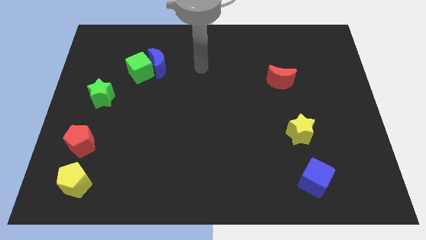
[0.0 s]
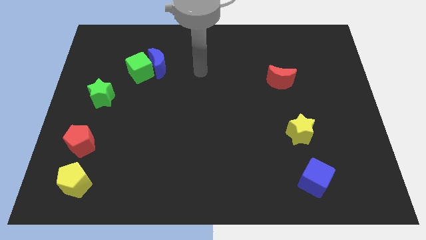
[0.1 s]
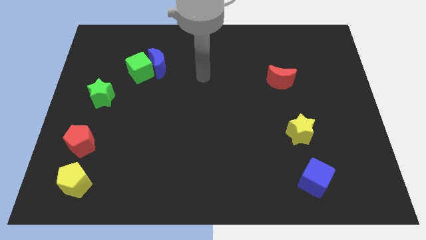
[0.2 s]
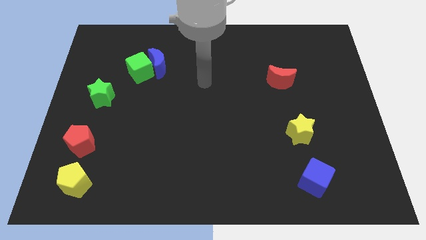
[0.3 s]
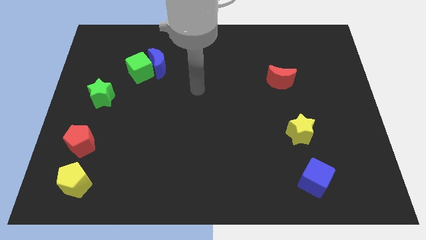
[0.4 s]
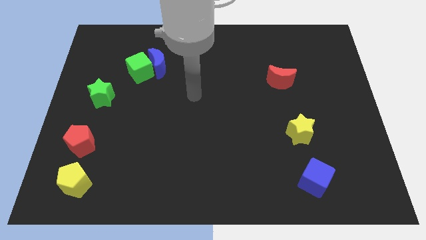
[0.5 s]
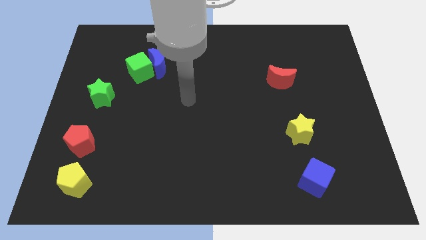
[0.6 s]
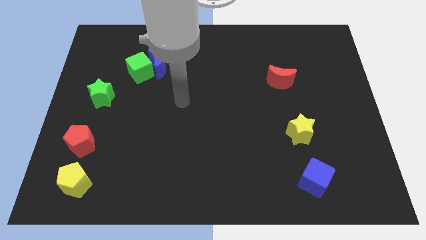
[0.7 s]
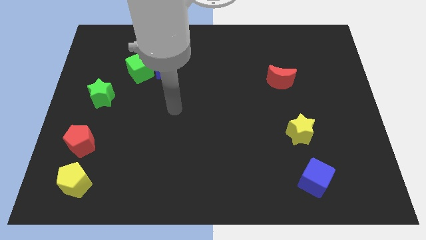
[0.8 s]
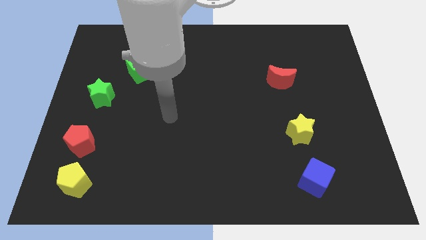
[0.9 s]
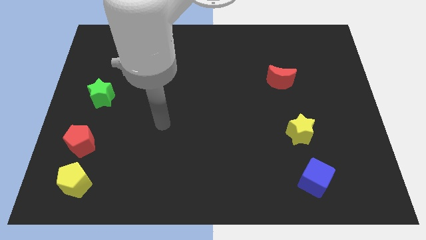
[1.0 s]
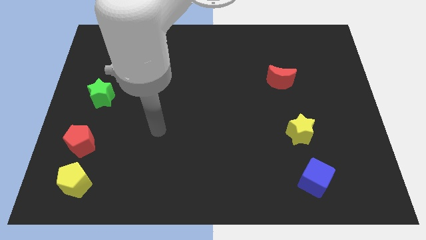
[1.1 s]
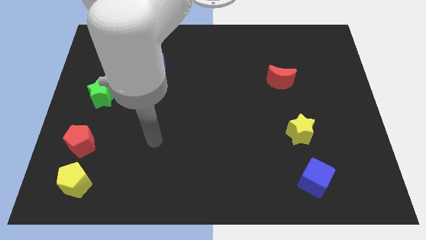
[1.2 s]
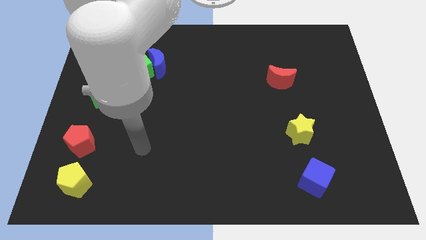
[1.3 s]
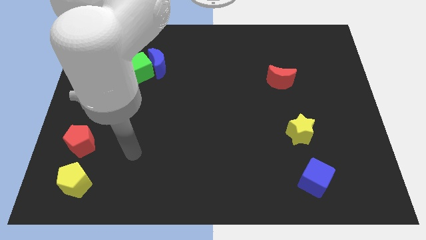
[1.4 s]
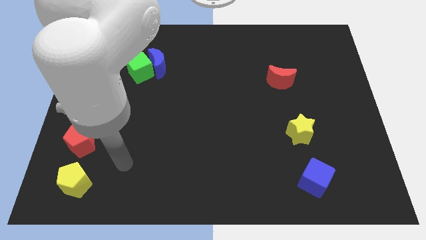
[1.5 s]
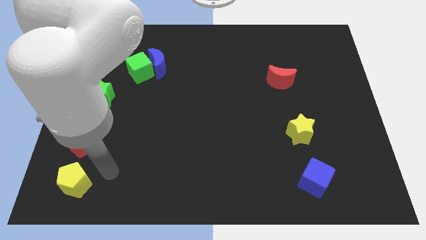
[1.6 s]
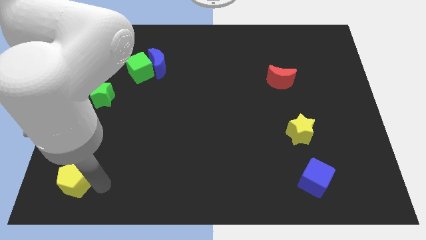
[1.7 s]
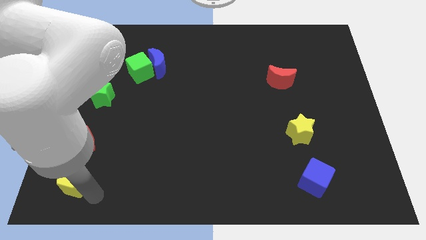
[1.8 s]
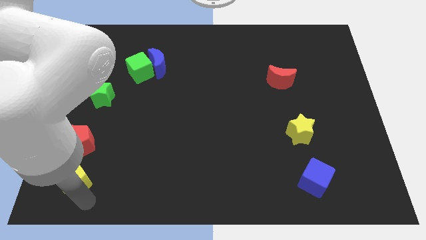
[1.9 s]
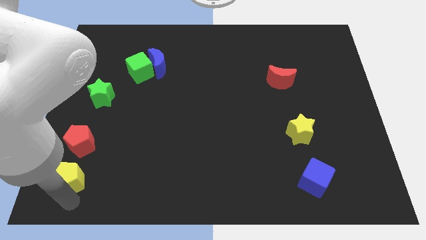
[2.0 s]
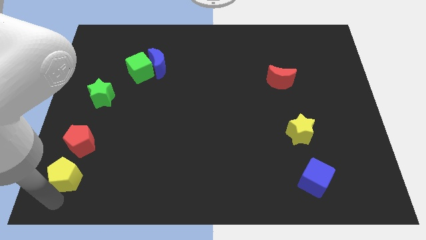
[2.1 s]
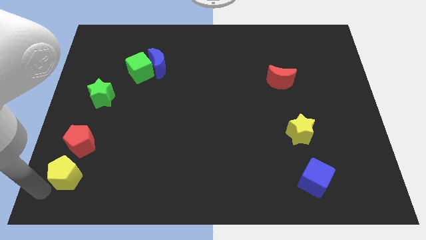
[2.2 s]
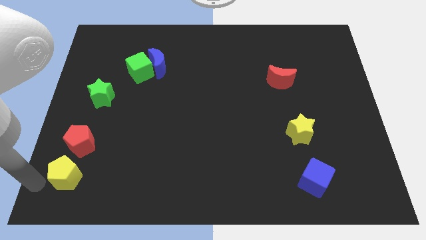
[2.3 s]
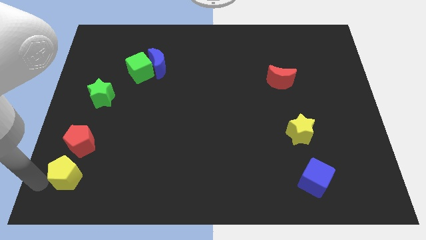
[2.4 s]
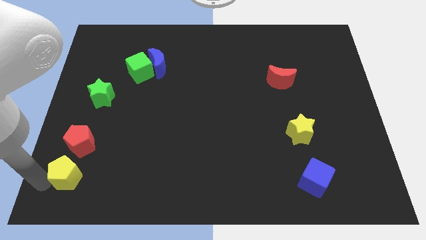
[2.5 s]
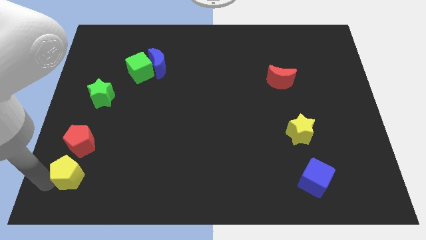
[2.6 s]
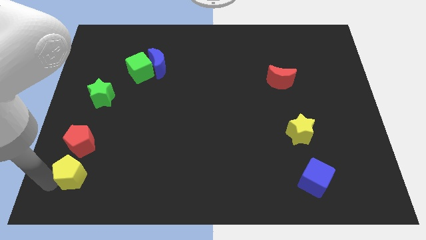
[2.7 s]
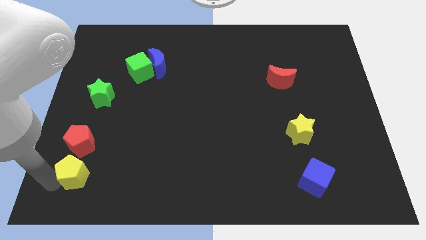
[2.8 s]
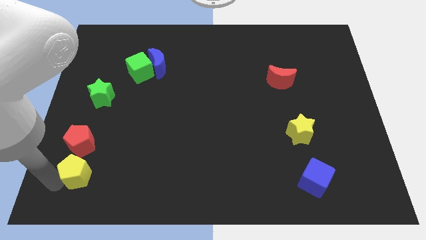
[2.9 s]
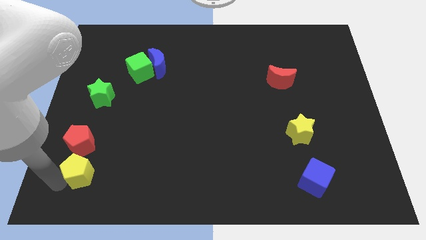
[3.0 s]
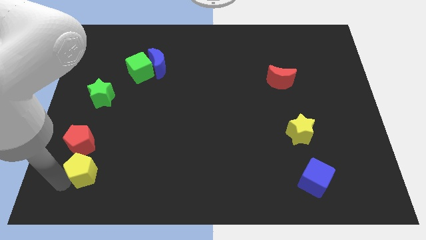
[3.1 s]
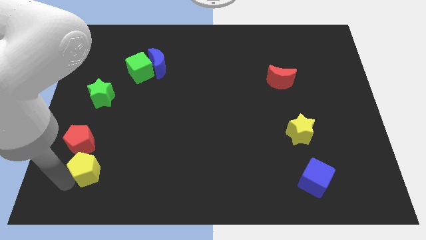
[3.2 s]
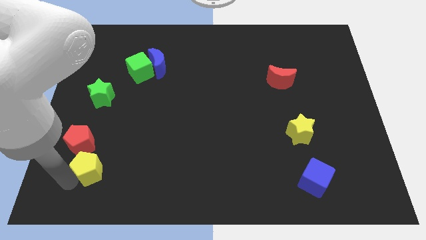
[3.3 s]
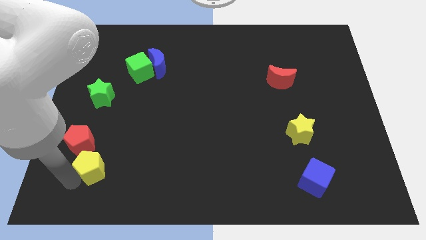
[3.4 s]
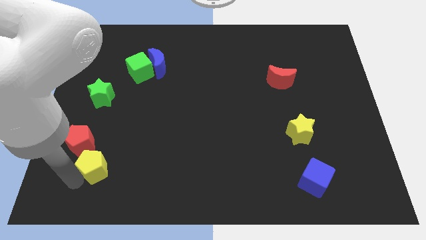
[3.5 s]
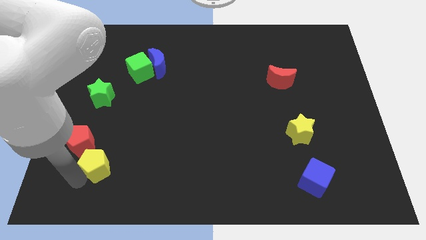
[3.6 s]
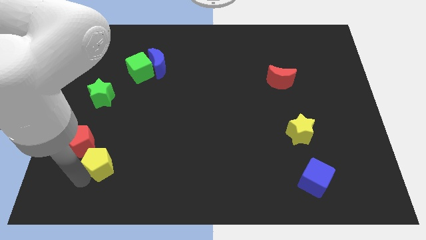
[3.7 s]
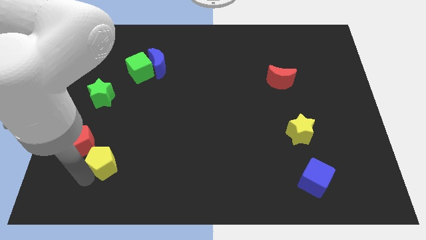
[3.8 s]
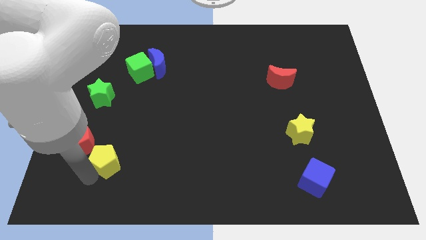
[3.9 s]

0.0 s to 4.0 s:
slightly move the yellow pentagon diagonally up and right

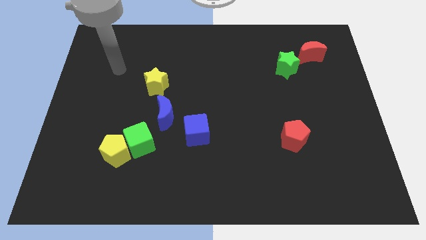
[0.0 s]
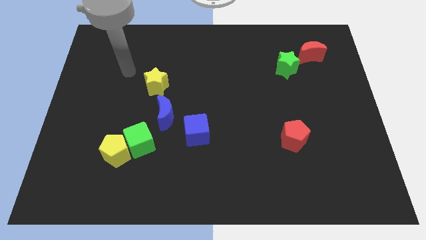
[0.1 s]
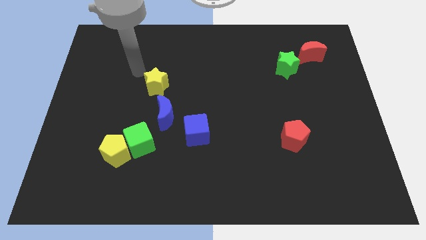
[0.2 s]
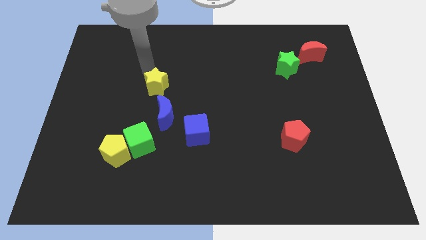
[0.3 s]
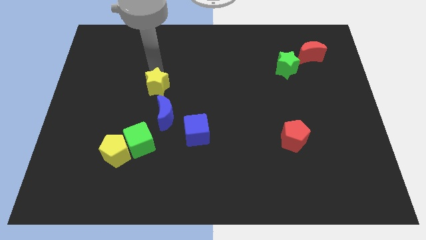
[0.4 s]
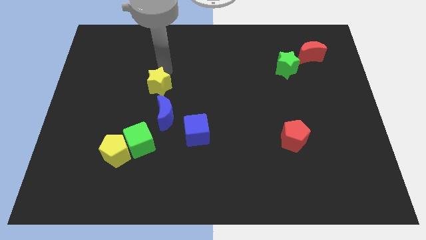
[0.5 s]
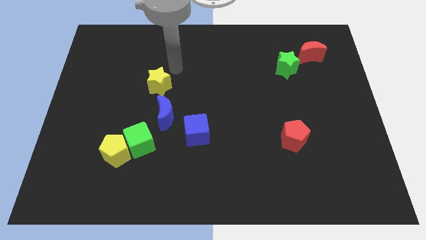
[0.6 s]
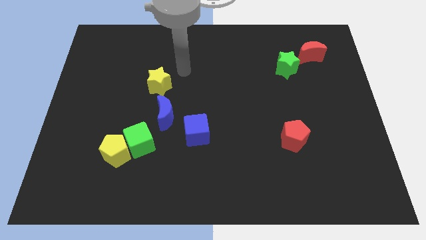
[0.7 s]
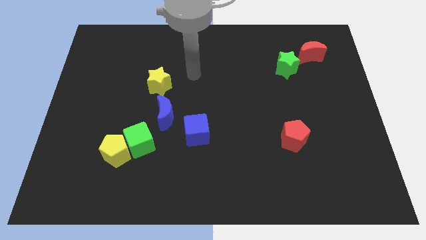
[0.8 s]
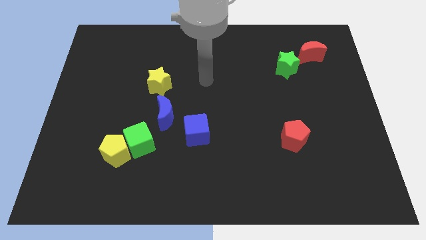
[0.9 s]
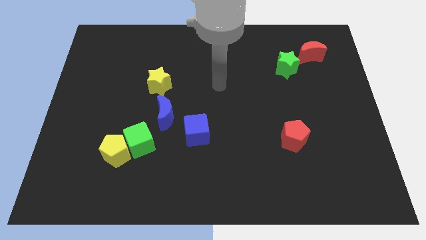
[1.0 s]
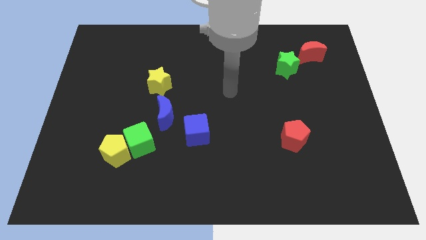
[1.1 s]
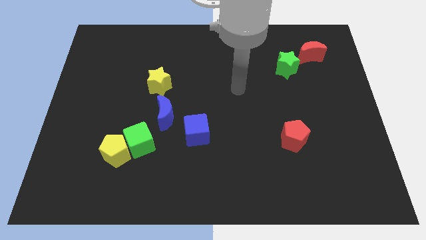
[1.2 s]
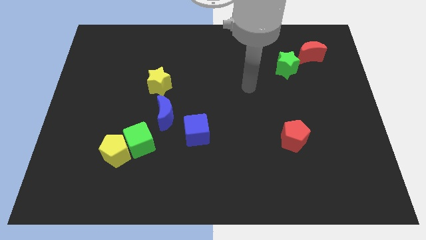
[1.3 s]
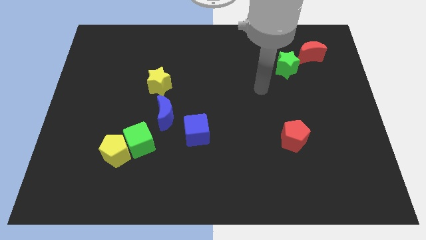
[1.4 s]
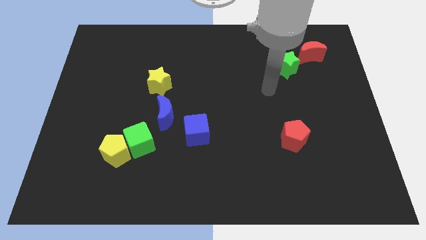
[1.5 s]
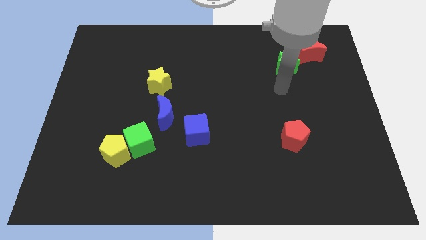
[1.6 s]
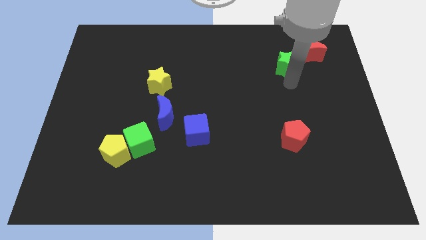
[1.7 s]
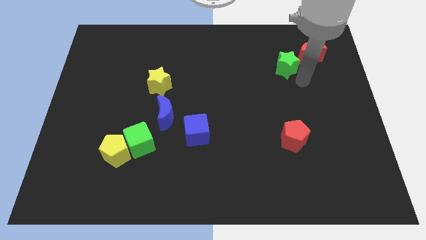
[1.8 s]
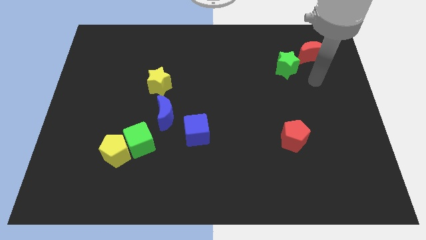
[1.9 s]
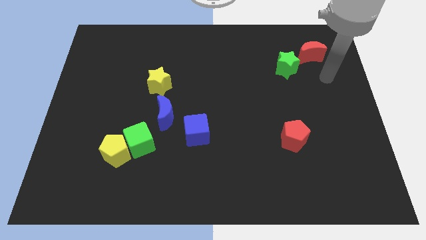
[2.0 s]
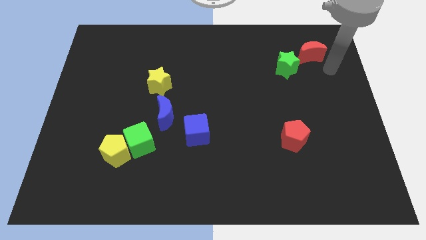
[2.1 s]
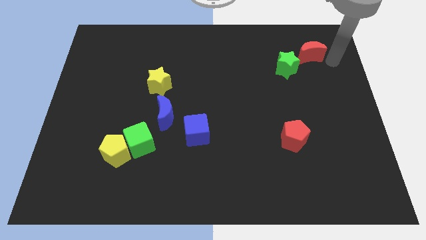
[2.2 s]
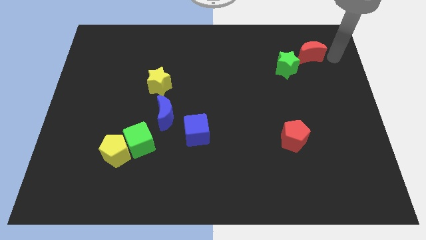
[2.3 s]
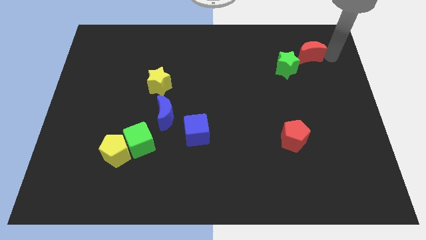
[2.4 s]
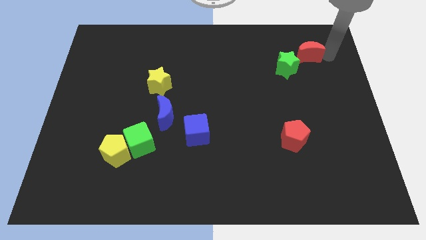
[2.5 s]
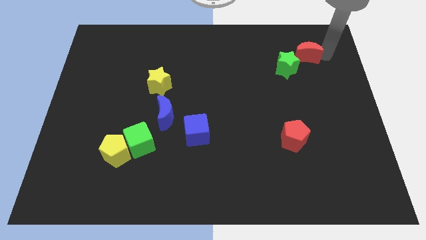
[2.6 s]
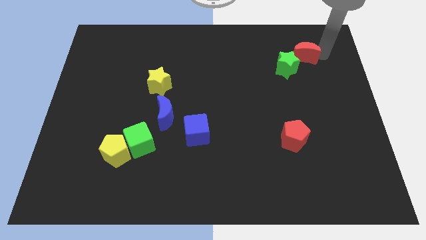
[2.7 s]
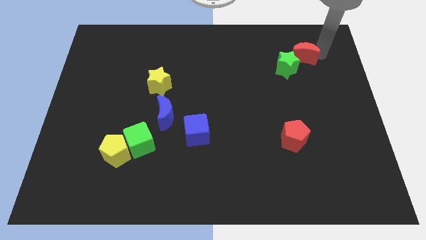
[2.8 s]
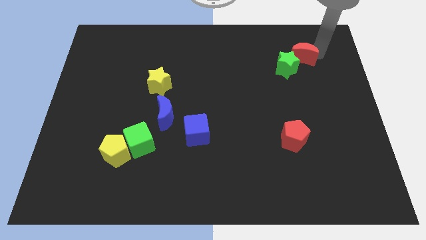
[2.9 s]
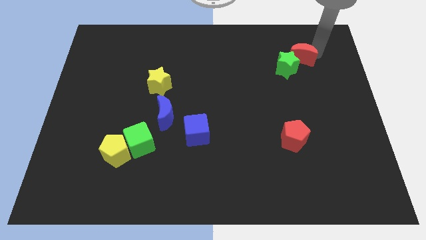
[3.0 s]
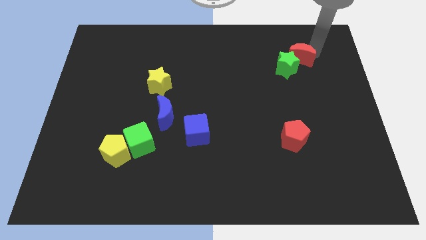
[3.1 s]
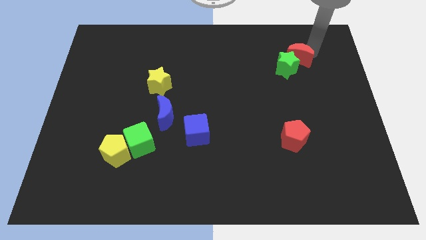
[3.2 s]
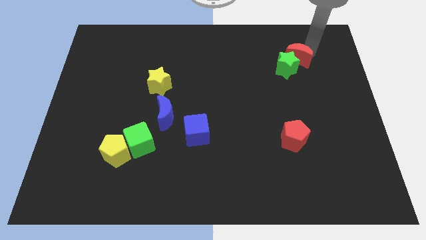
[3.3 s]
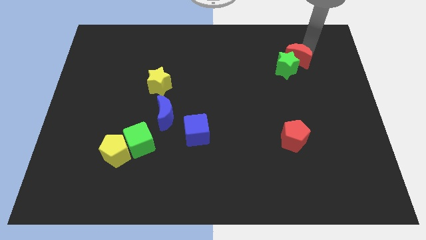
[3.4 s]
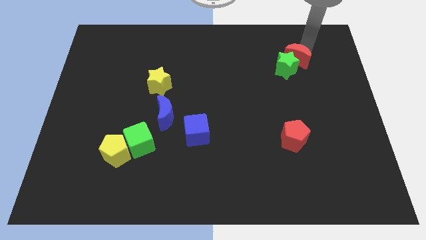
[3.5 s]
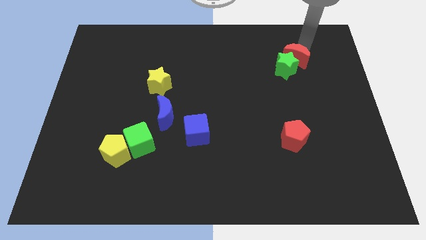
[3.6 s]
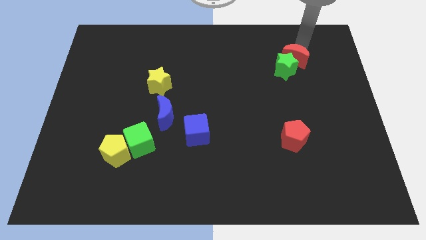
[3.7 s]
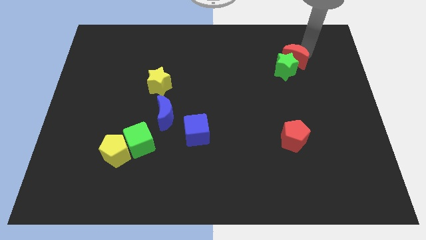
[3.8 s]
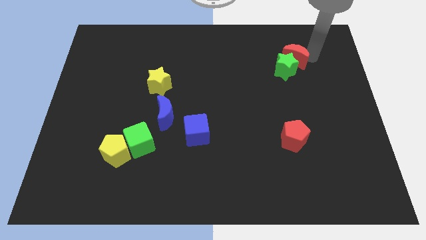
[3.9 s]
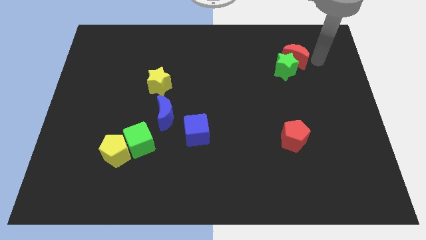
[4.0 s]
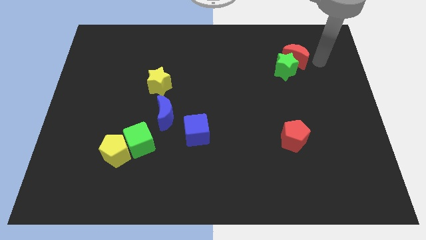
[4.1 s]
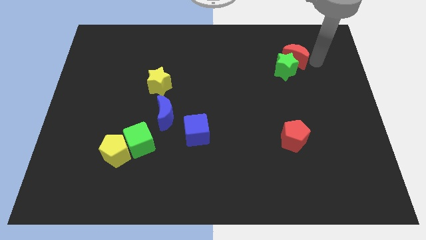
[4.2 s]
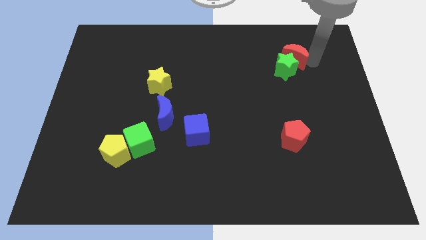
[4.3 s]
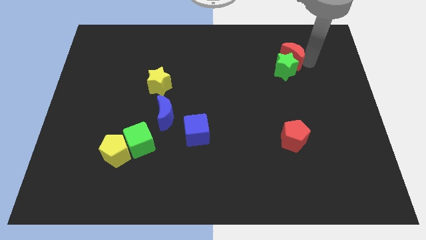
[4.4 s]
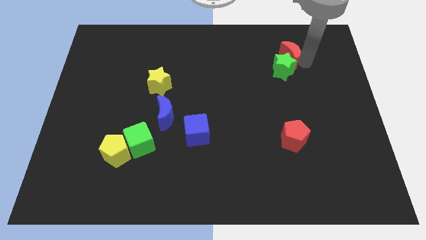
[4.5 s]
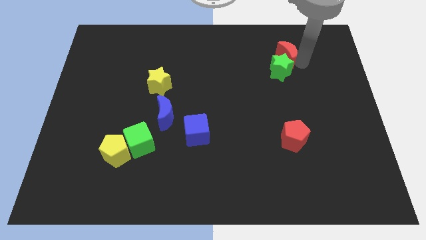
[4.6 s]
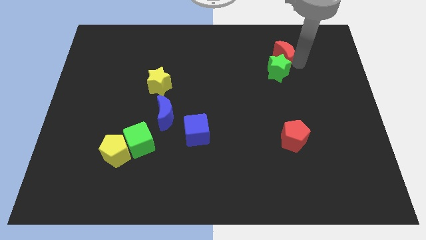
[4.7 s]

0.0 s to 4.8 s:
push the red moon somewhat left
